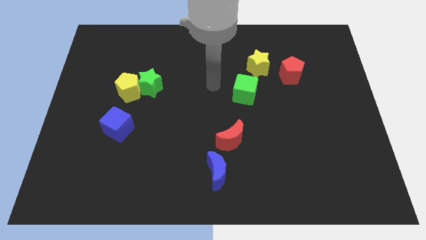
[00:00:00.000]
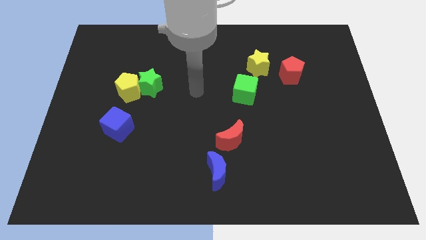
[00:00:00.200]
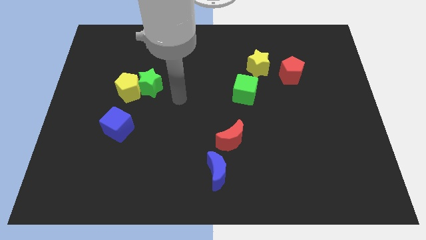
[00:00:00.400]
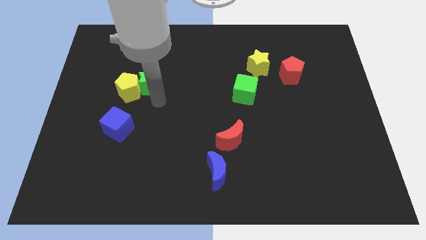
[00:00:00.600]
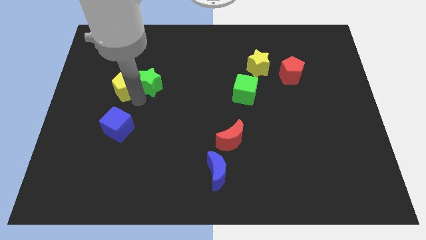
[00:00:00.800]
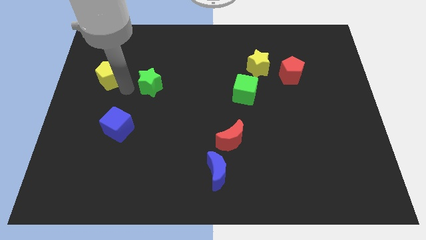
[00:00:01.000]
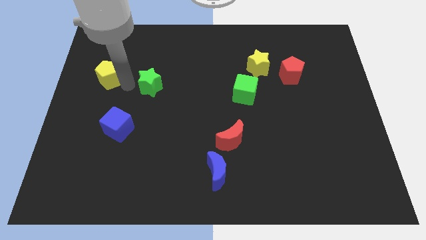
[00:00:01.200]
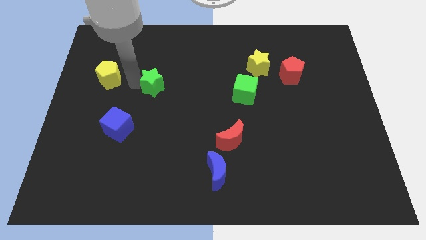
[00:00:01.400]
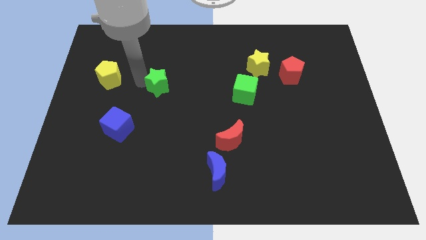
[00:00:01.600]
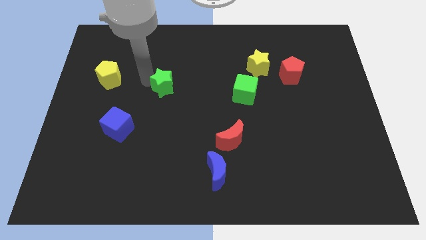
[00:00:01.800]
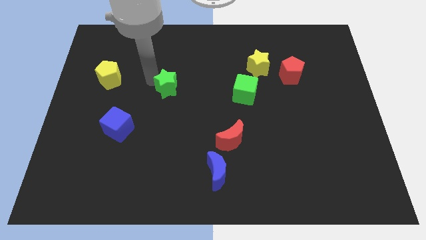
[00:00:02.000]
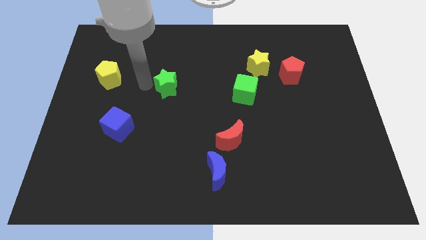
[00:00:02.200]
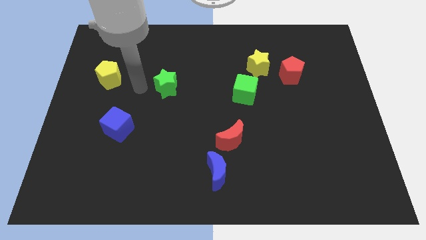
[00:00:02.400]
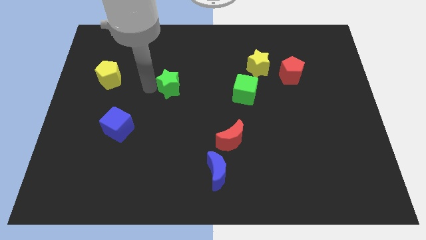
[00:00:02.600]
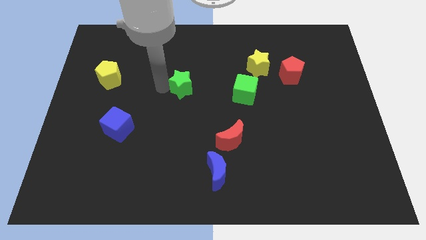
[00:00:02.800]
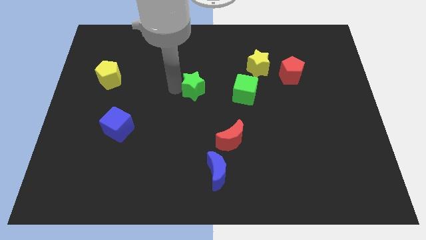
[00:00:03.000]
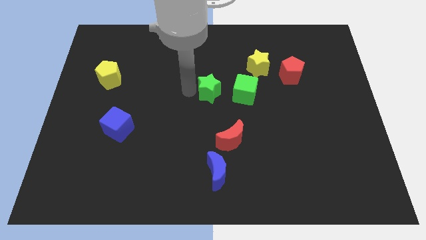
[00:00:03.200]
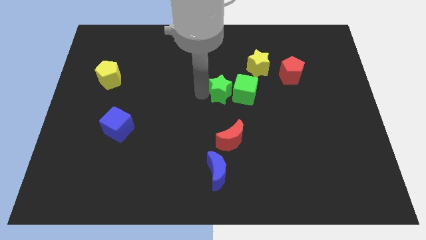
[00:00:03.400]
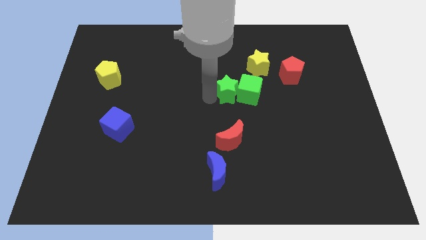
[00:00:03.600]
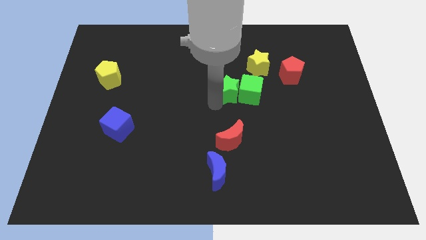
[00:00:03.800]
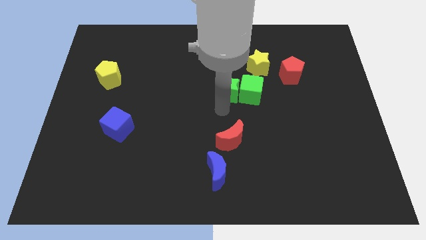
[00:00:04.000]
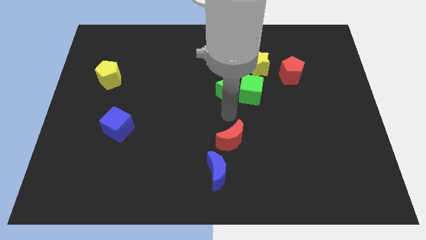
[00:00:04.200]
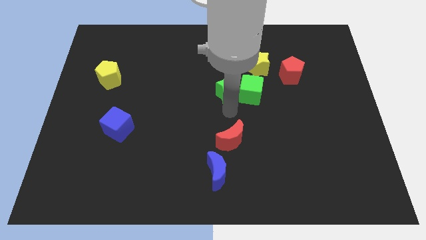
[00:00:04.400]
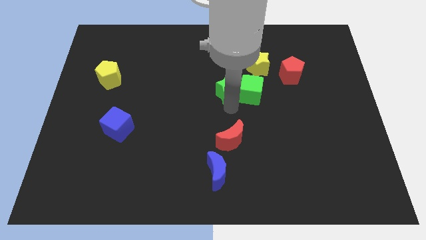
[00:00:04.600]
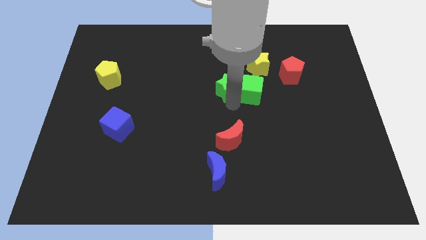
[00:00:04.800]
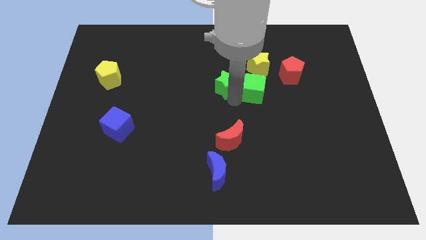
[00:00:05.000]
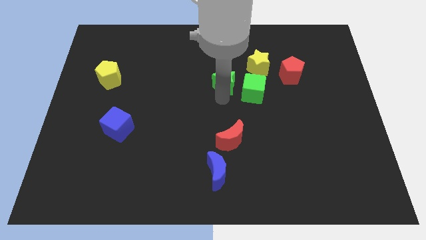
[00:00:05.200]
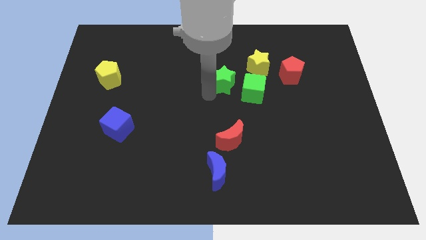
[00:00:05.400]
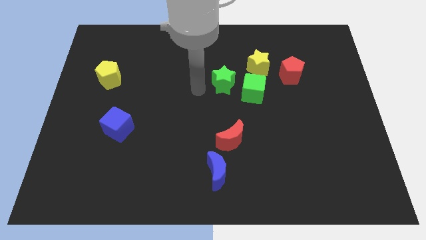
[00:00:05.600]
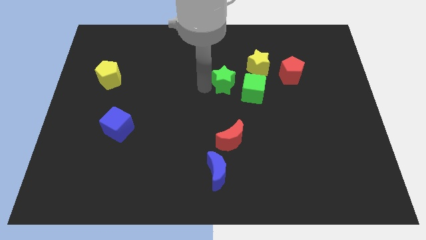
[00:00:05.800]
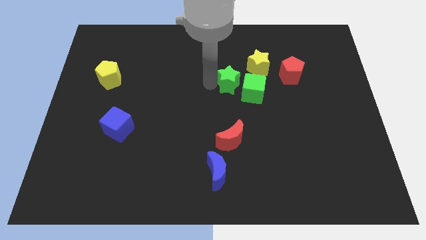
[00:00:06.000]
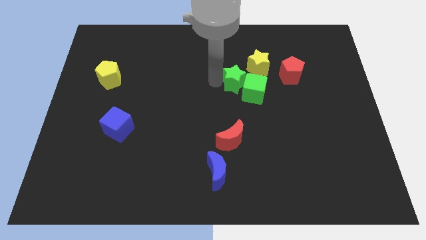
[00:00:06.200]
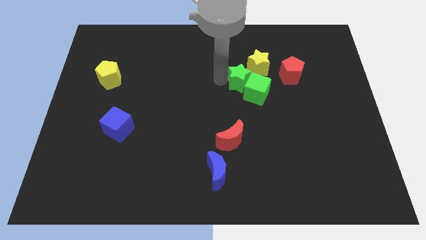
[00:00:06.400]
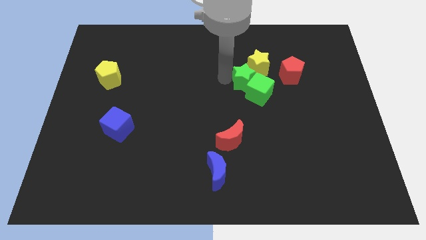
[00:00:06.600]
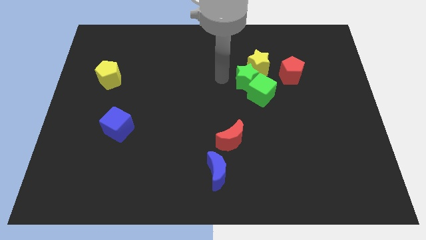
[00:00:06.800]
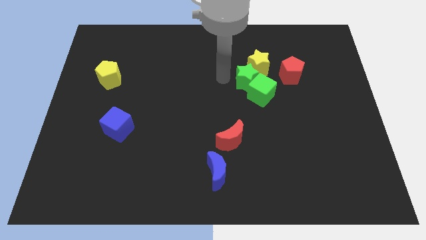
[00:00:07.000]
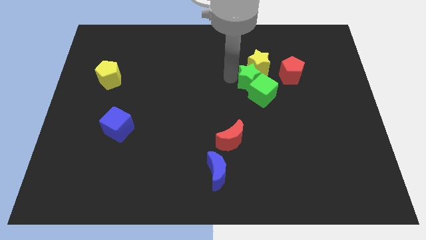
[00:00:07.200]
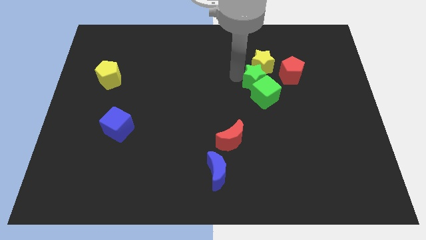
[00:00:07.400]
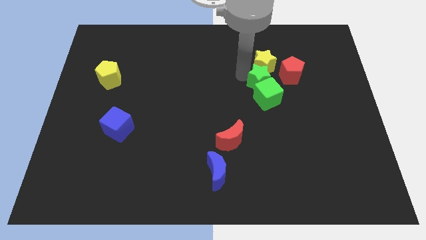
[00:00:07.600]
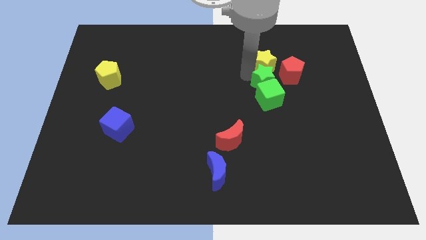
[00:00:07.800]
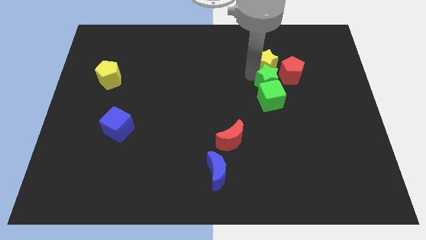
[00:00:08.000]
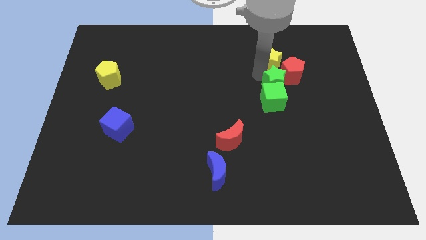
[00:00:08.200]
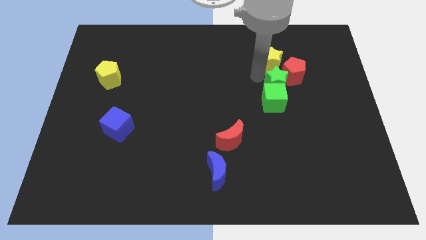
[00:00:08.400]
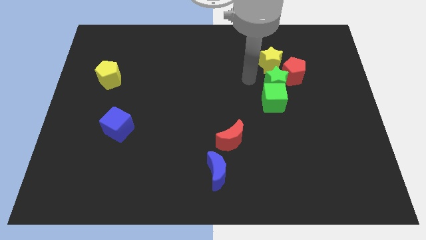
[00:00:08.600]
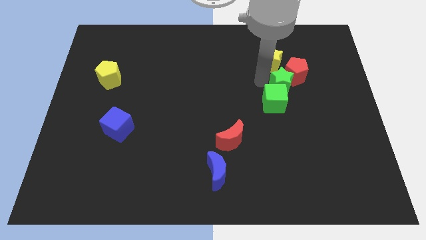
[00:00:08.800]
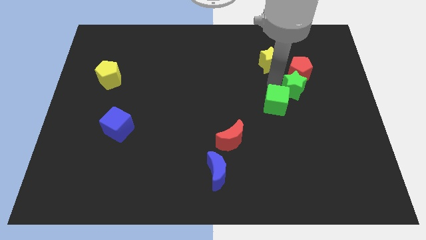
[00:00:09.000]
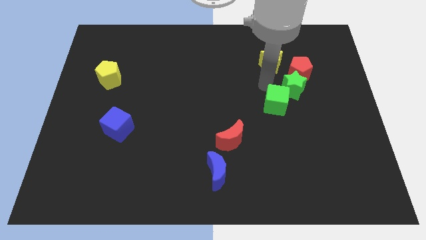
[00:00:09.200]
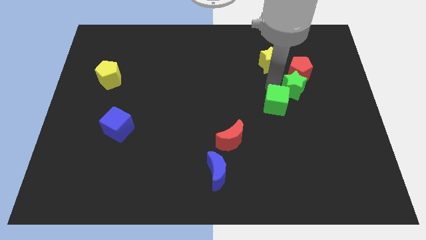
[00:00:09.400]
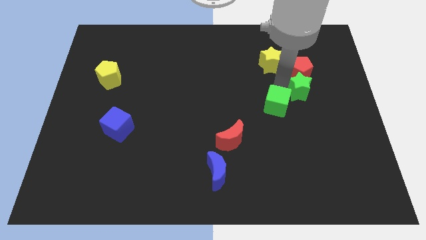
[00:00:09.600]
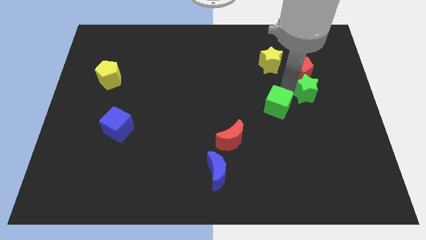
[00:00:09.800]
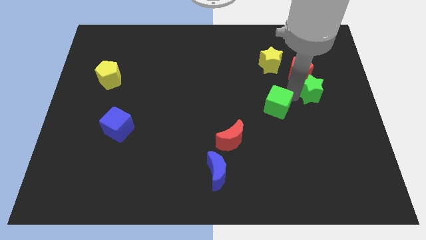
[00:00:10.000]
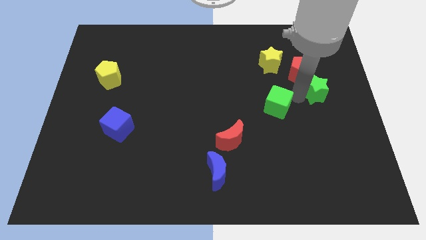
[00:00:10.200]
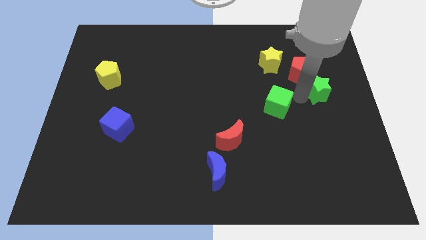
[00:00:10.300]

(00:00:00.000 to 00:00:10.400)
move the green star to the right side

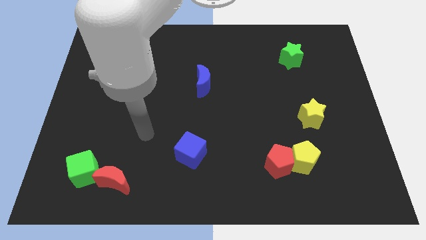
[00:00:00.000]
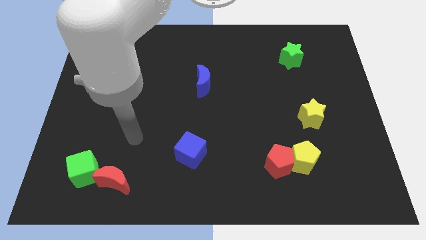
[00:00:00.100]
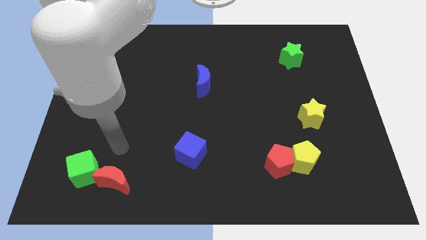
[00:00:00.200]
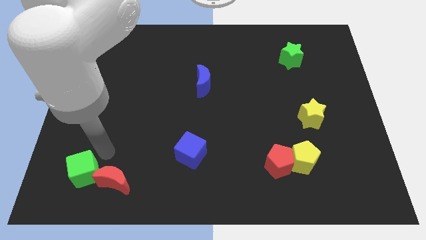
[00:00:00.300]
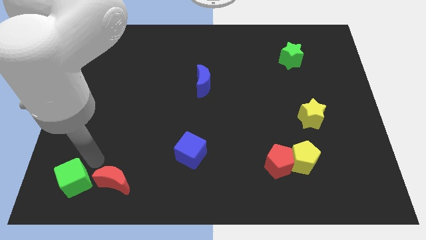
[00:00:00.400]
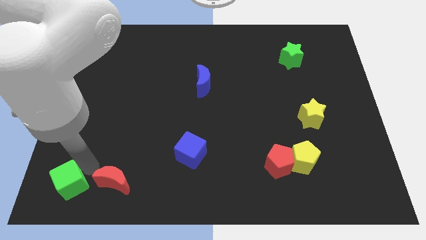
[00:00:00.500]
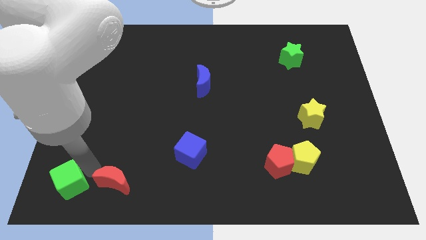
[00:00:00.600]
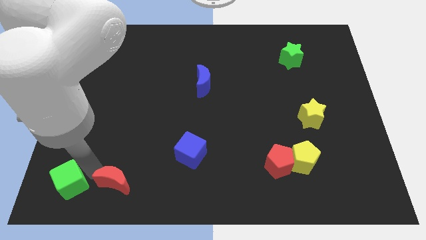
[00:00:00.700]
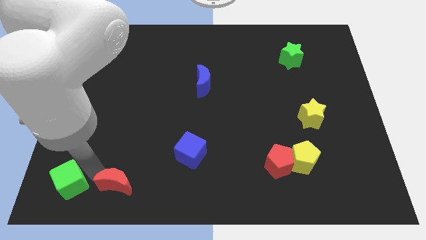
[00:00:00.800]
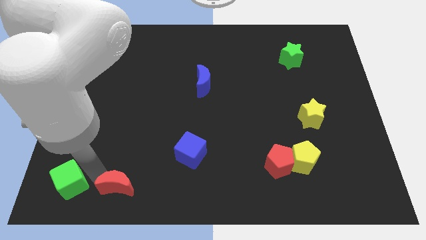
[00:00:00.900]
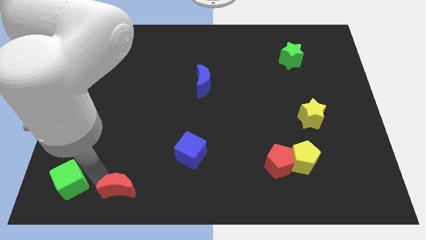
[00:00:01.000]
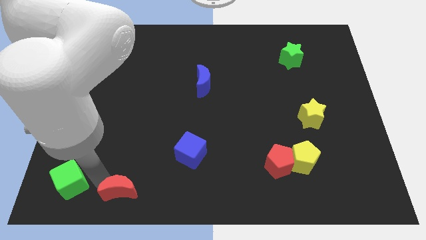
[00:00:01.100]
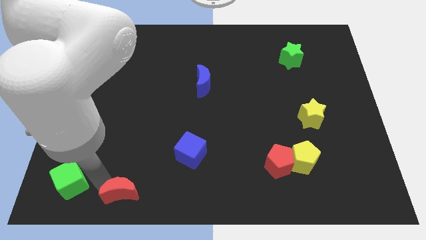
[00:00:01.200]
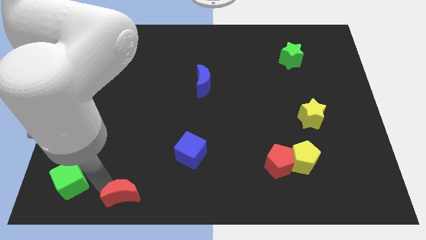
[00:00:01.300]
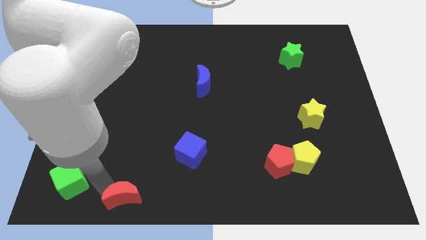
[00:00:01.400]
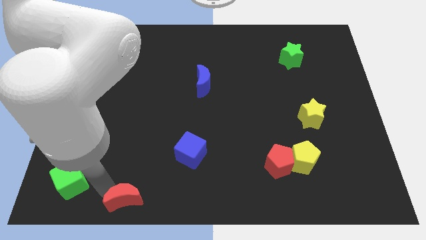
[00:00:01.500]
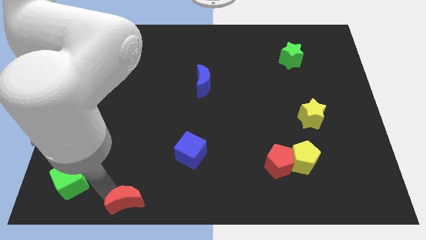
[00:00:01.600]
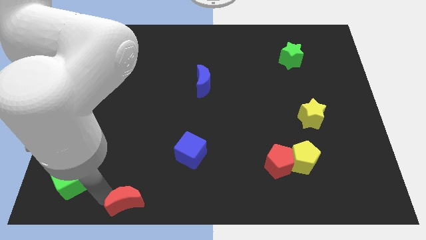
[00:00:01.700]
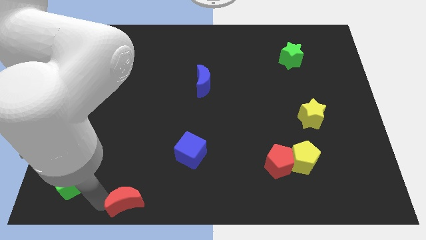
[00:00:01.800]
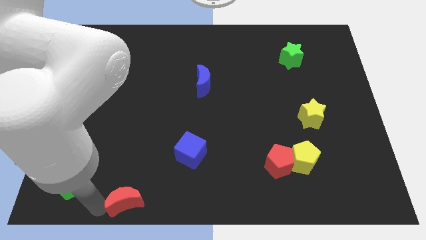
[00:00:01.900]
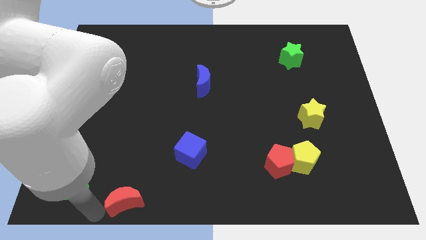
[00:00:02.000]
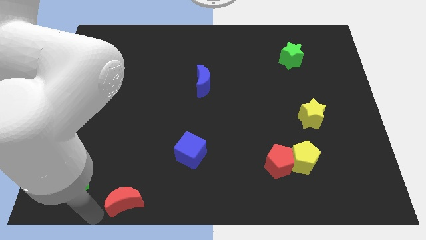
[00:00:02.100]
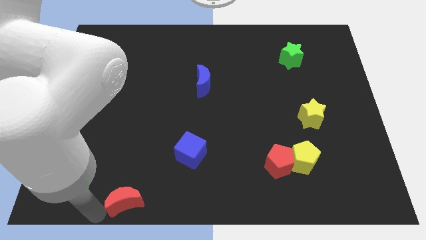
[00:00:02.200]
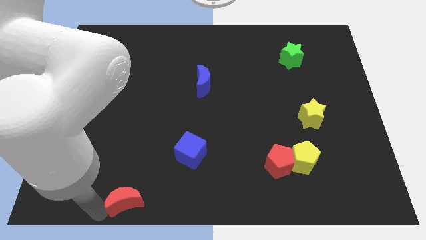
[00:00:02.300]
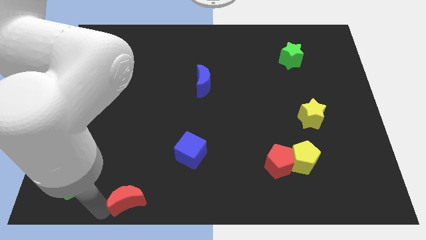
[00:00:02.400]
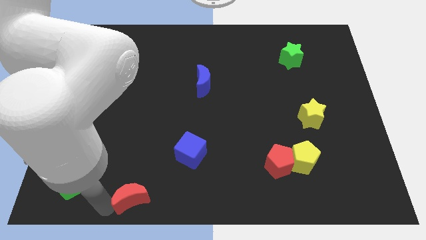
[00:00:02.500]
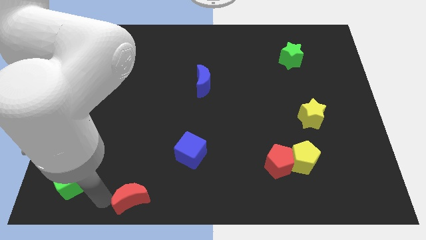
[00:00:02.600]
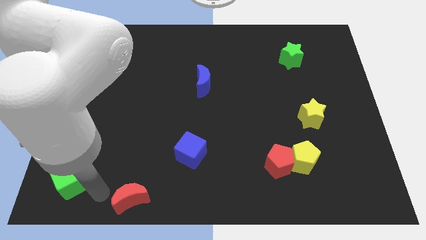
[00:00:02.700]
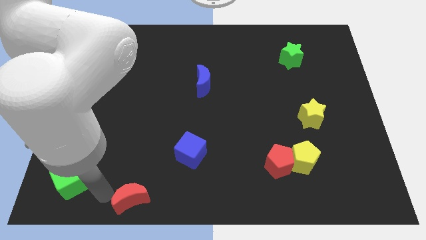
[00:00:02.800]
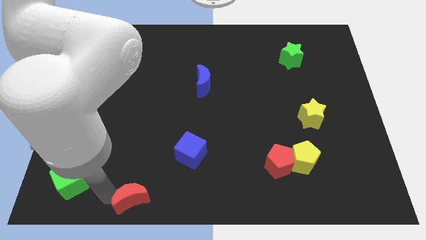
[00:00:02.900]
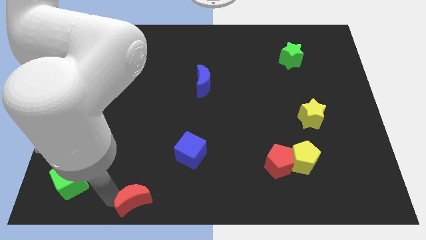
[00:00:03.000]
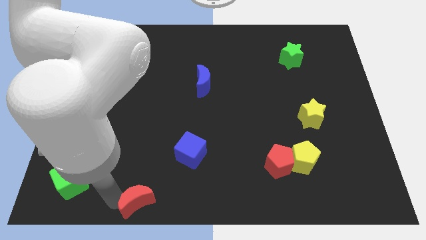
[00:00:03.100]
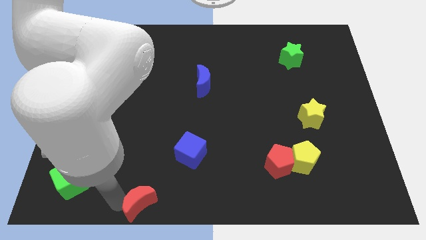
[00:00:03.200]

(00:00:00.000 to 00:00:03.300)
slide the red moon to the bottom side
